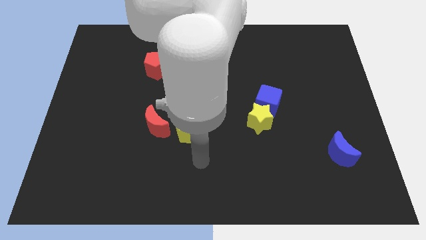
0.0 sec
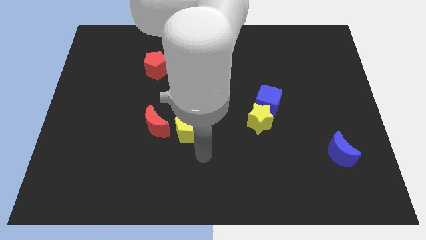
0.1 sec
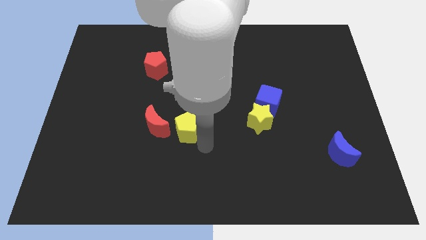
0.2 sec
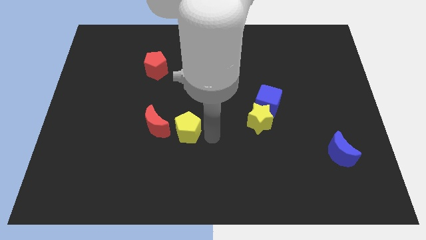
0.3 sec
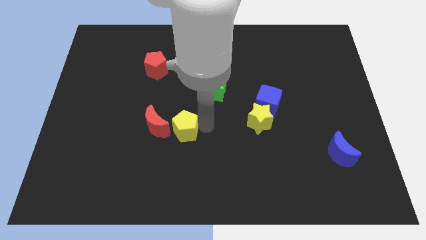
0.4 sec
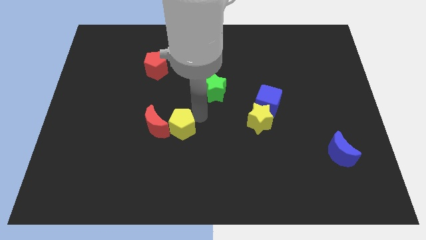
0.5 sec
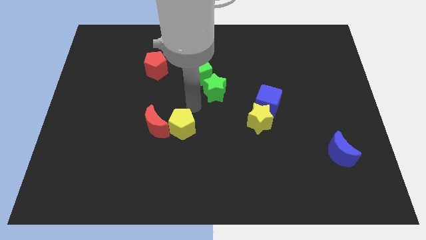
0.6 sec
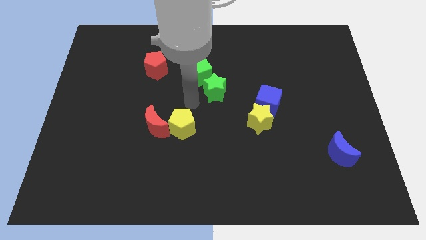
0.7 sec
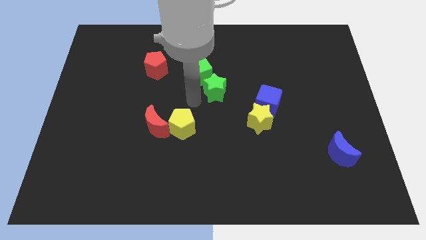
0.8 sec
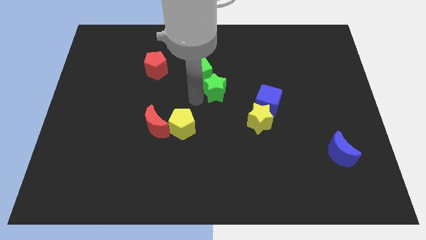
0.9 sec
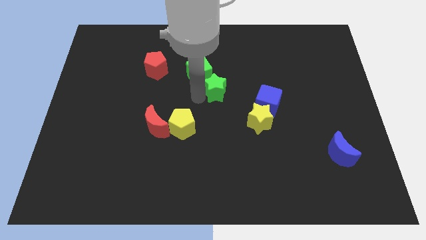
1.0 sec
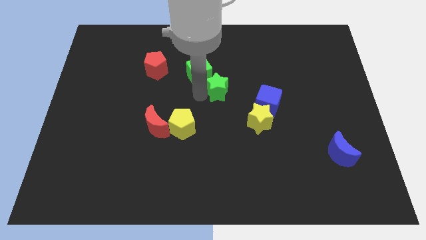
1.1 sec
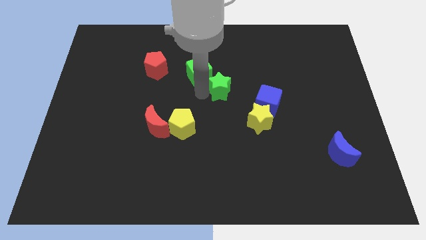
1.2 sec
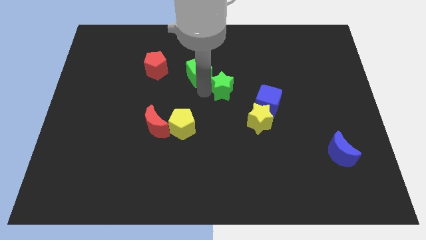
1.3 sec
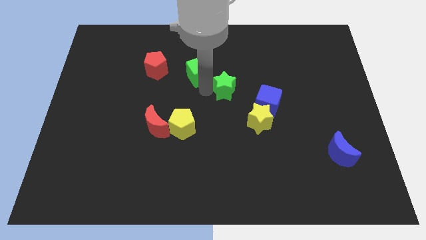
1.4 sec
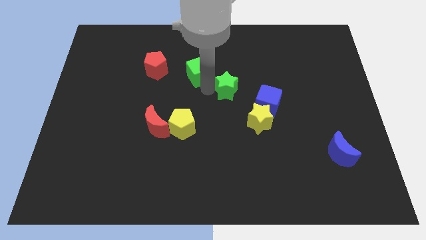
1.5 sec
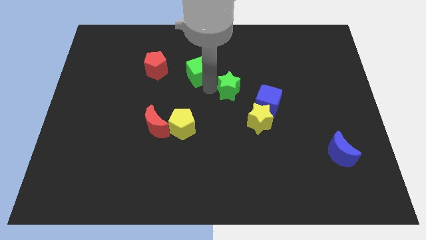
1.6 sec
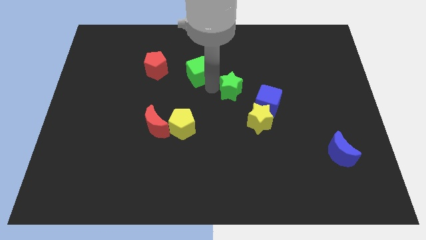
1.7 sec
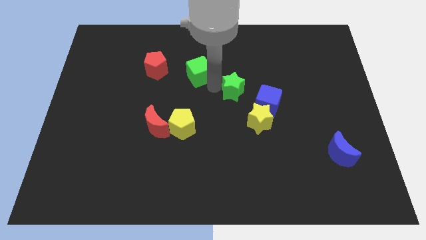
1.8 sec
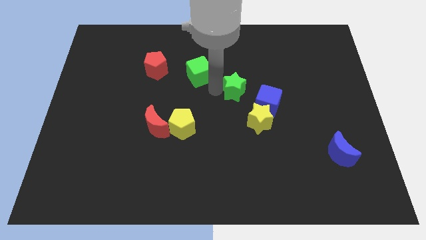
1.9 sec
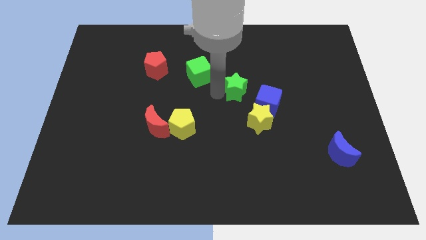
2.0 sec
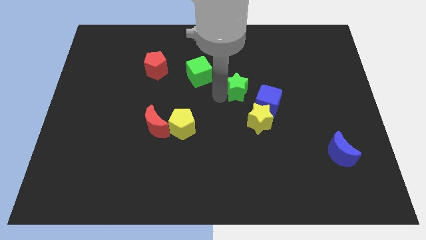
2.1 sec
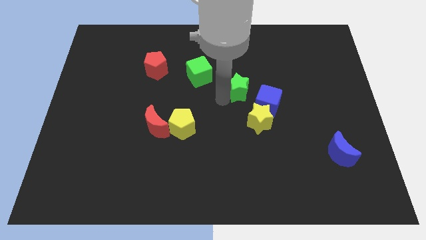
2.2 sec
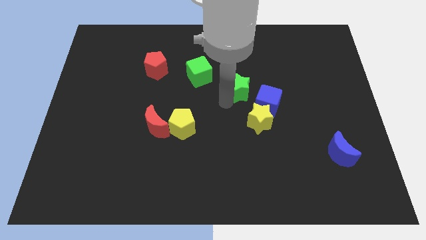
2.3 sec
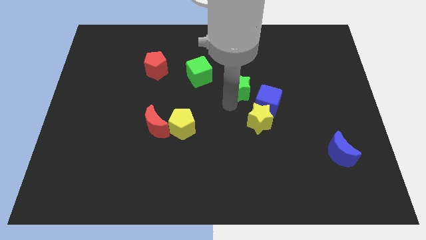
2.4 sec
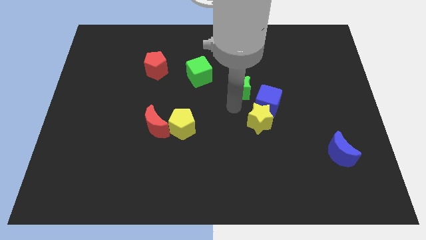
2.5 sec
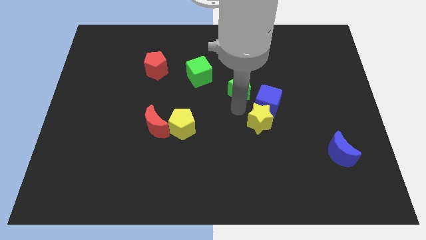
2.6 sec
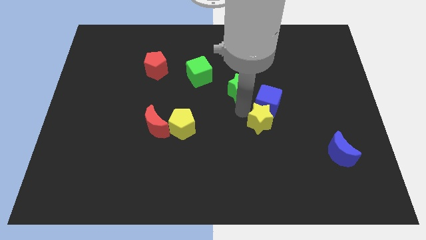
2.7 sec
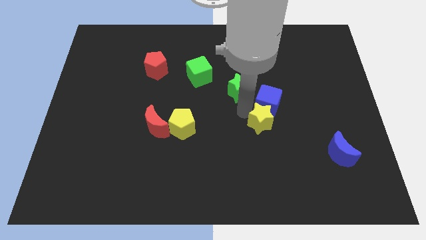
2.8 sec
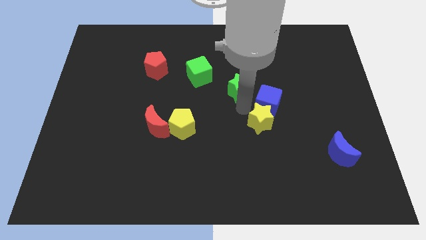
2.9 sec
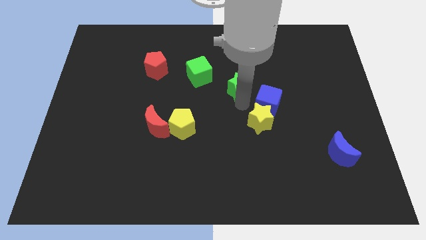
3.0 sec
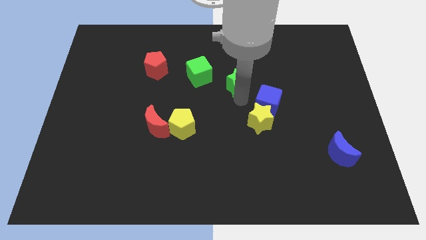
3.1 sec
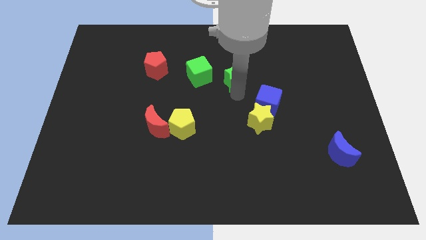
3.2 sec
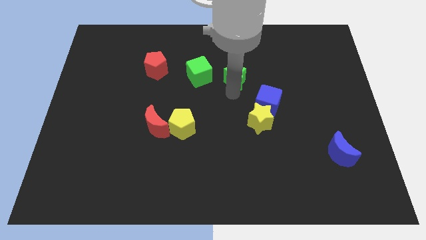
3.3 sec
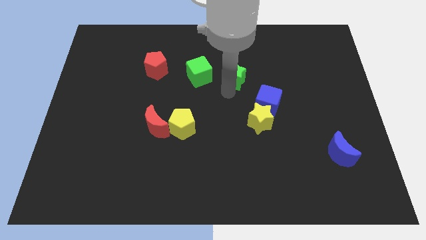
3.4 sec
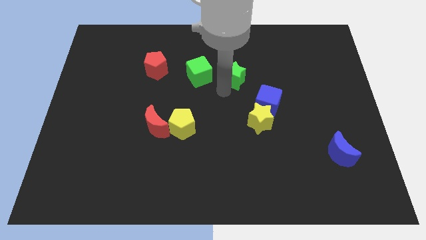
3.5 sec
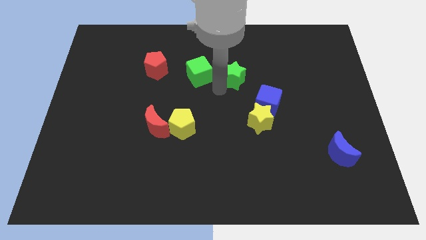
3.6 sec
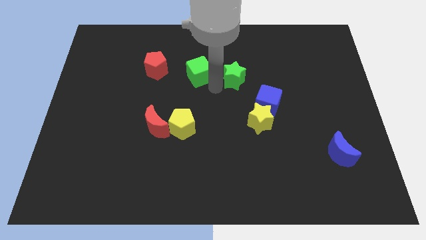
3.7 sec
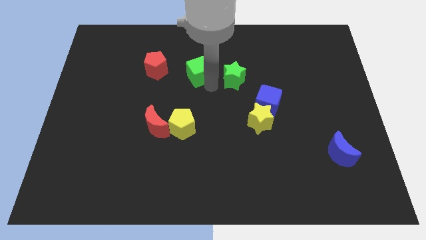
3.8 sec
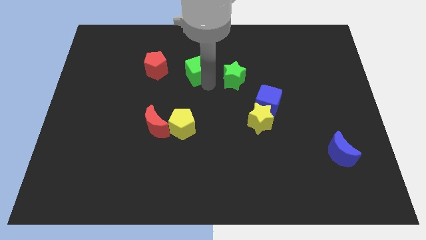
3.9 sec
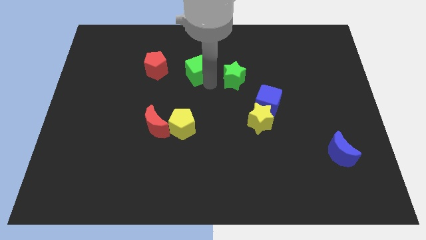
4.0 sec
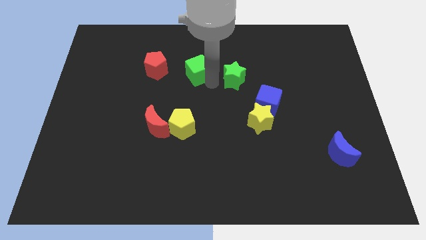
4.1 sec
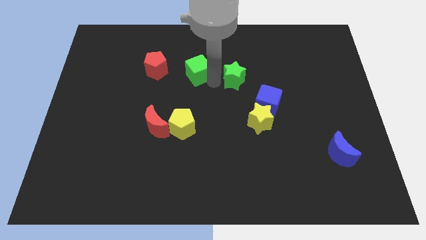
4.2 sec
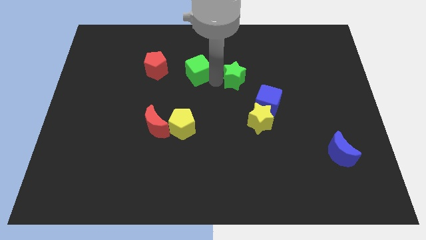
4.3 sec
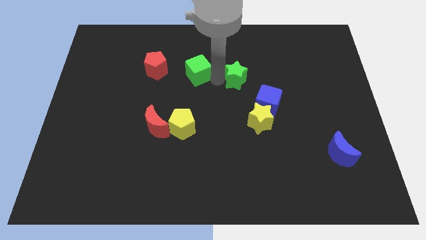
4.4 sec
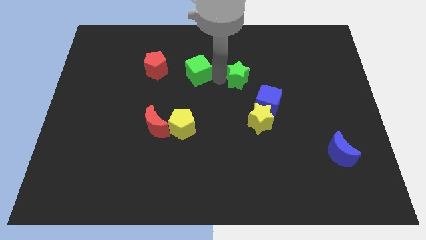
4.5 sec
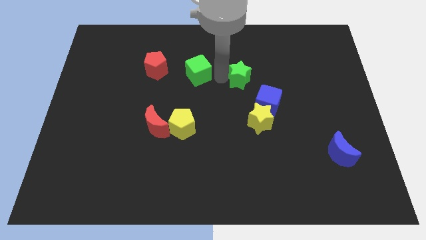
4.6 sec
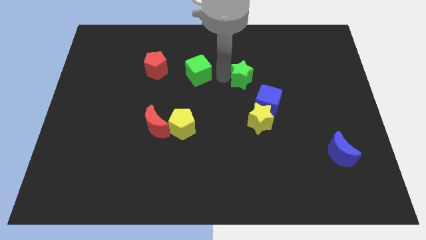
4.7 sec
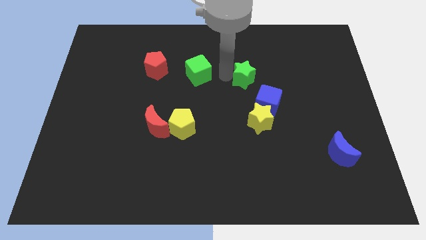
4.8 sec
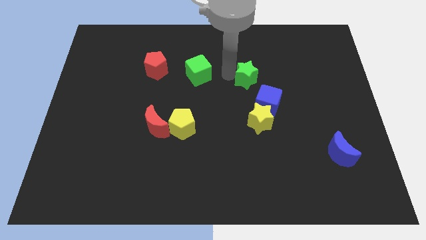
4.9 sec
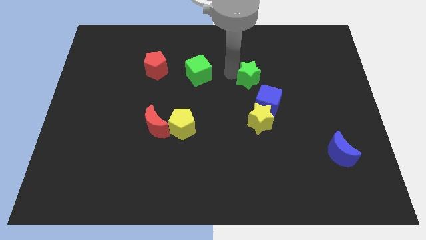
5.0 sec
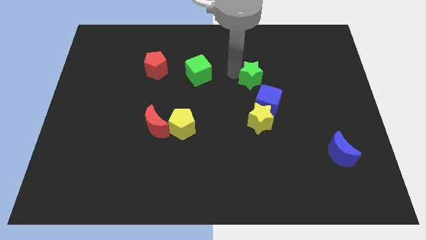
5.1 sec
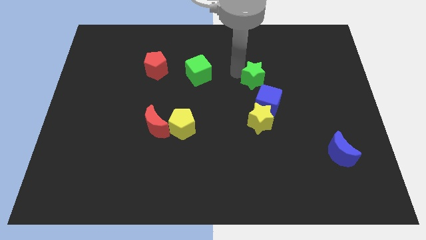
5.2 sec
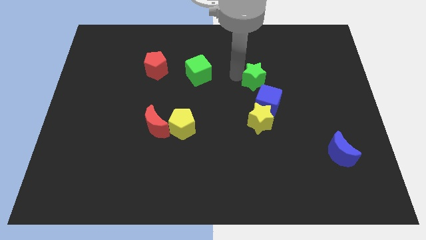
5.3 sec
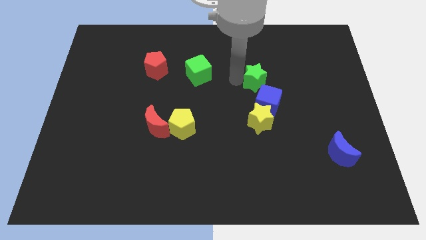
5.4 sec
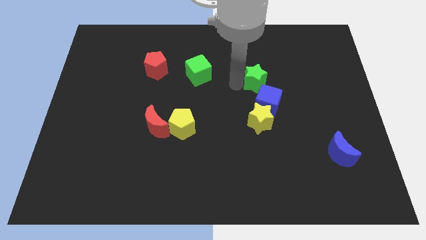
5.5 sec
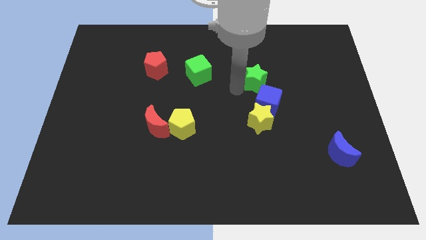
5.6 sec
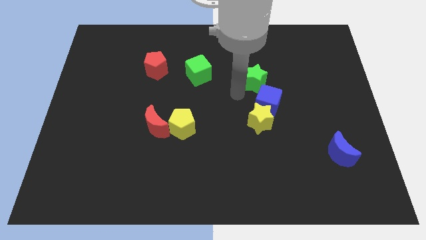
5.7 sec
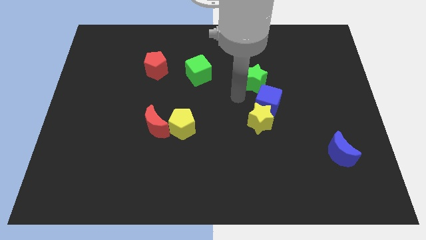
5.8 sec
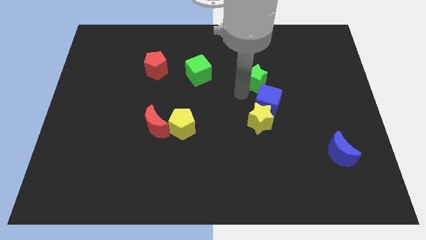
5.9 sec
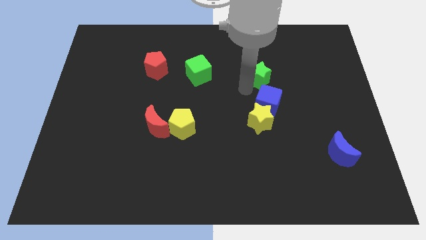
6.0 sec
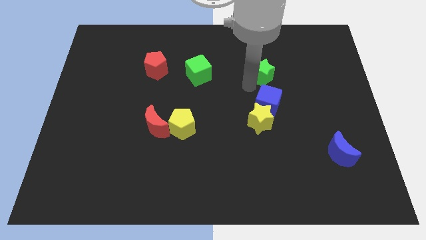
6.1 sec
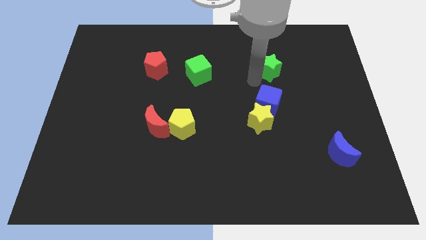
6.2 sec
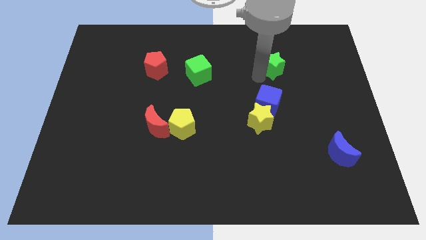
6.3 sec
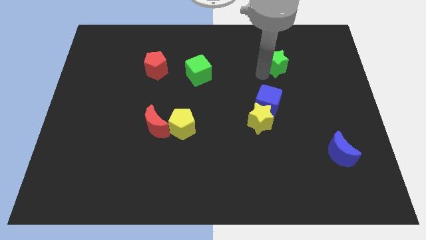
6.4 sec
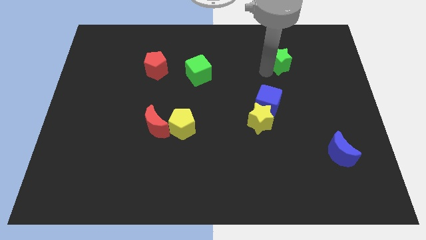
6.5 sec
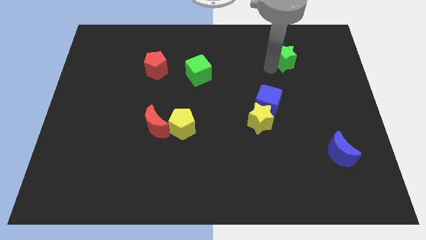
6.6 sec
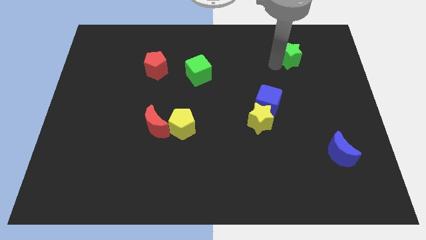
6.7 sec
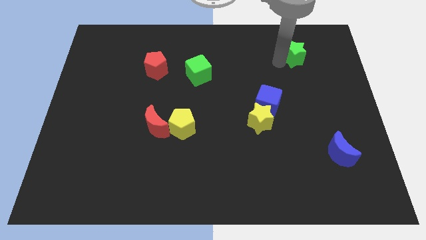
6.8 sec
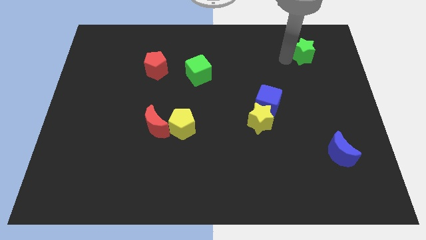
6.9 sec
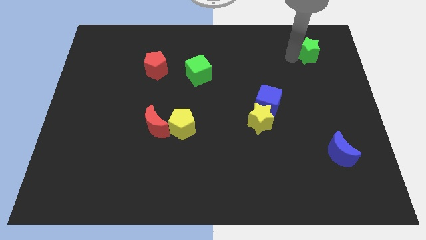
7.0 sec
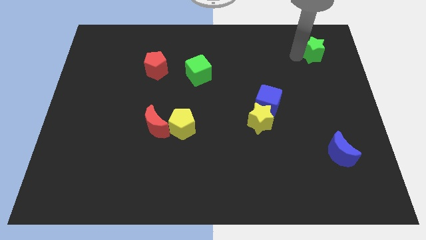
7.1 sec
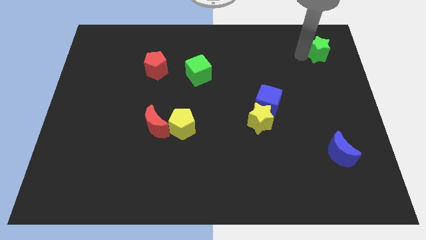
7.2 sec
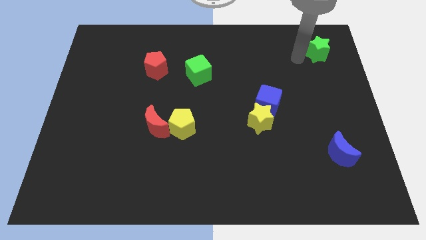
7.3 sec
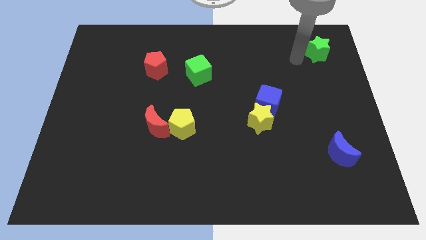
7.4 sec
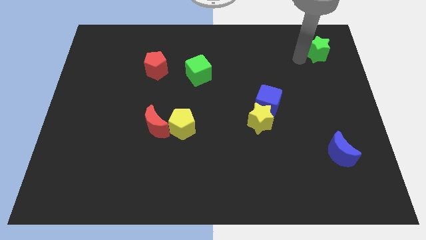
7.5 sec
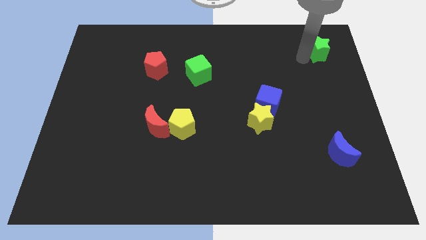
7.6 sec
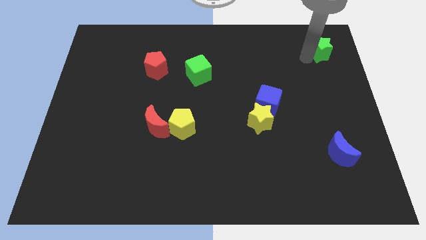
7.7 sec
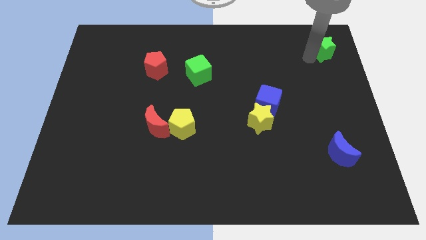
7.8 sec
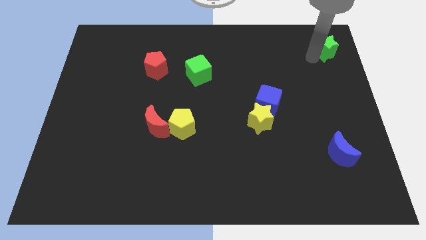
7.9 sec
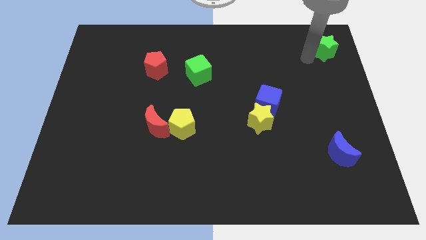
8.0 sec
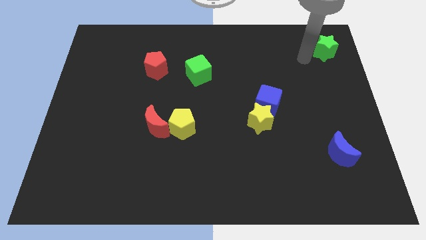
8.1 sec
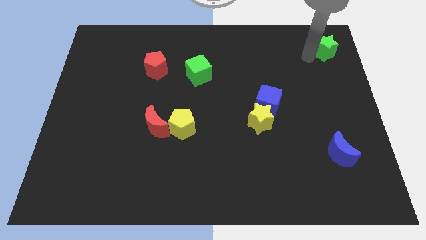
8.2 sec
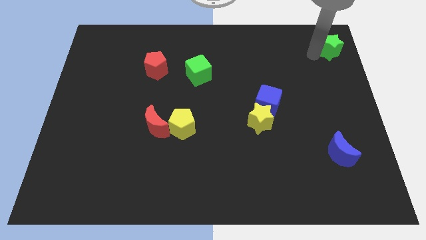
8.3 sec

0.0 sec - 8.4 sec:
put the green star to the top right corner
